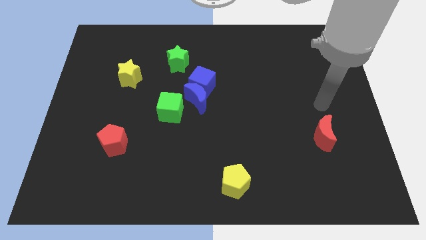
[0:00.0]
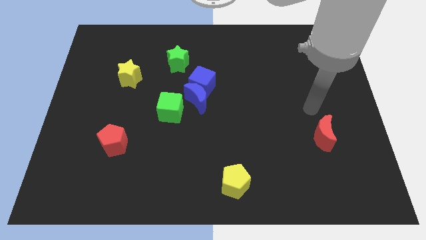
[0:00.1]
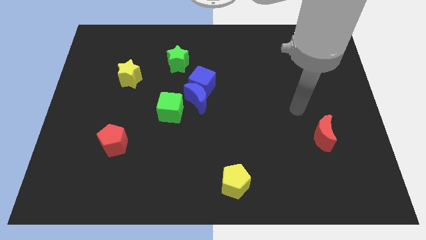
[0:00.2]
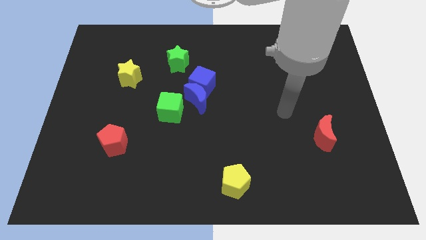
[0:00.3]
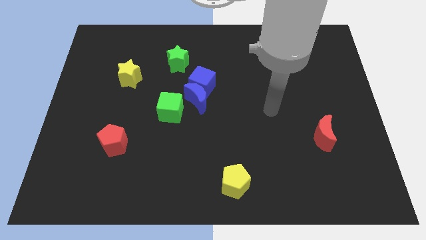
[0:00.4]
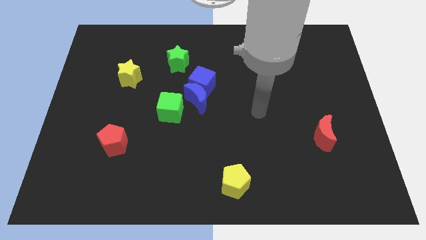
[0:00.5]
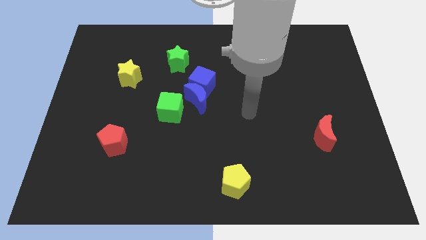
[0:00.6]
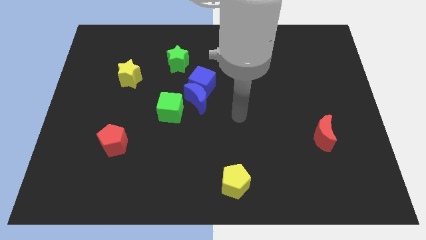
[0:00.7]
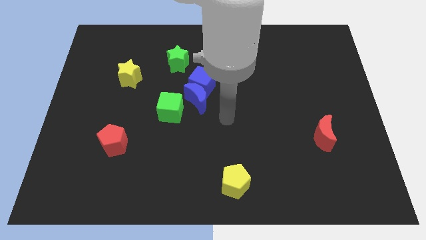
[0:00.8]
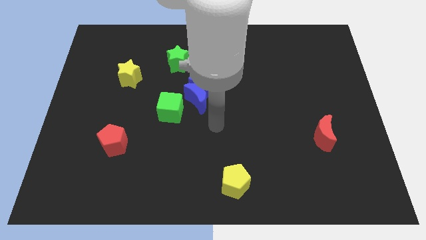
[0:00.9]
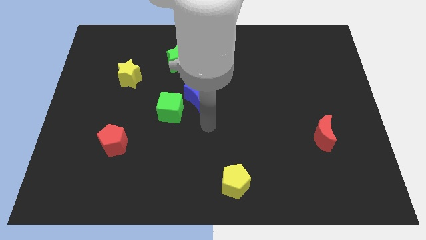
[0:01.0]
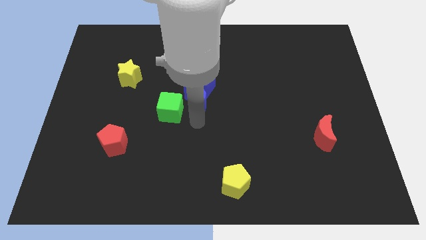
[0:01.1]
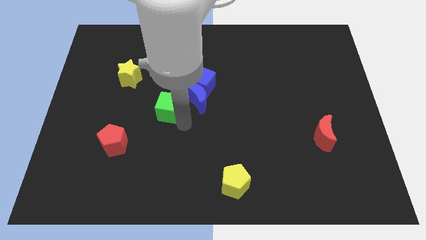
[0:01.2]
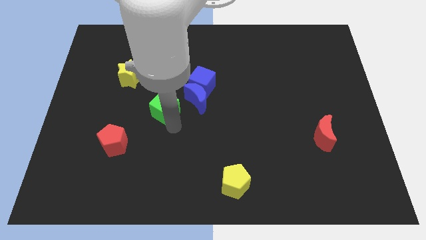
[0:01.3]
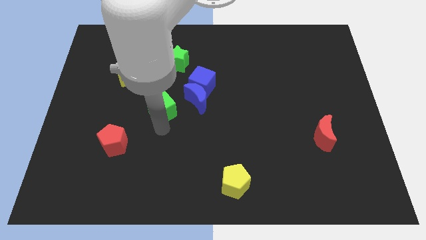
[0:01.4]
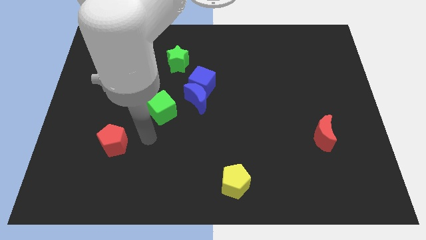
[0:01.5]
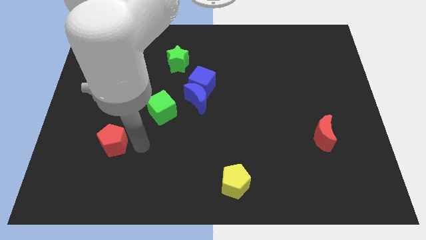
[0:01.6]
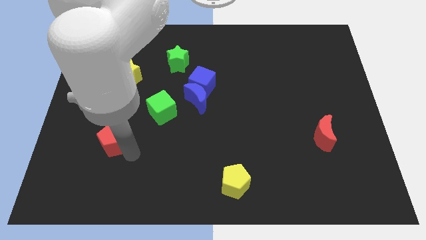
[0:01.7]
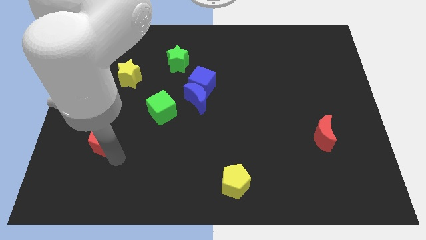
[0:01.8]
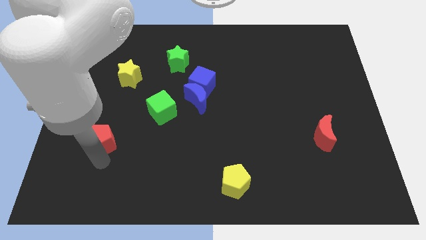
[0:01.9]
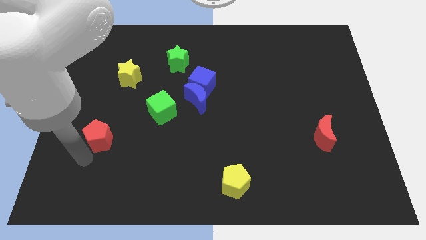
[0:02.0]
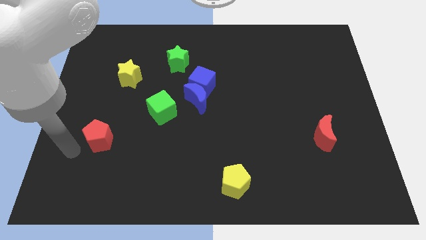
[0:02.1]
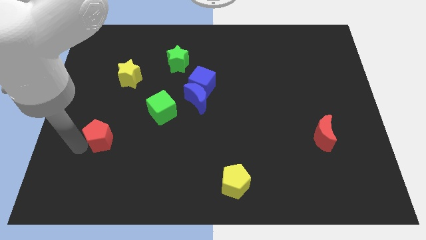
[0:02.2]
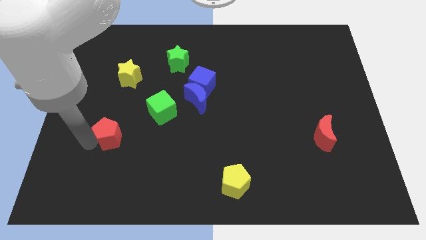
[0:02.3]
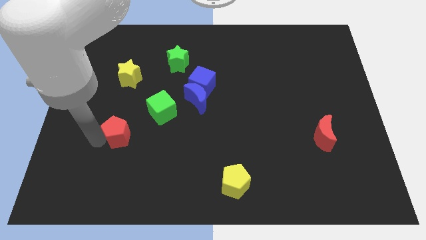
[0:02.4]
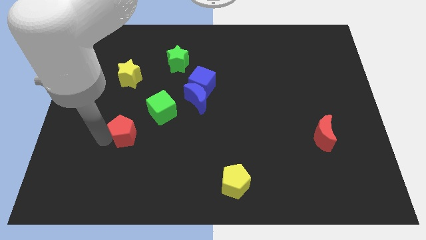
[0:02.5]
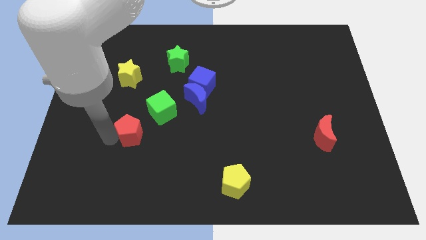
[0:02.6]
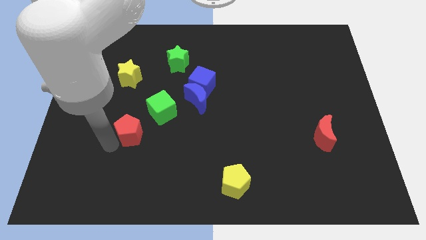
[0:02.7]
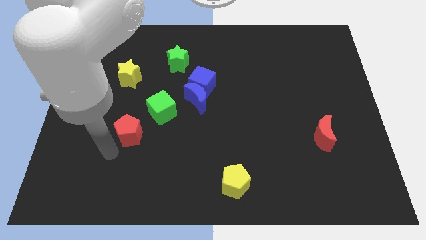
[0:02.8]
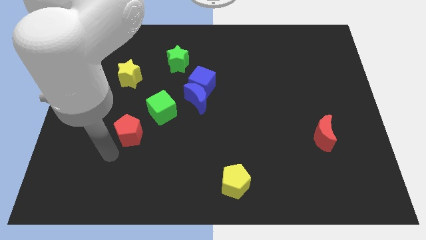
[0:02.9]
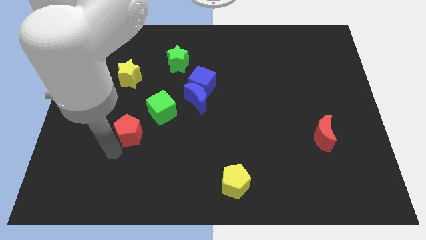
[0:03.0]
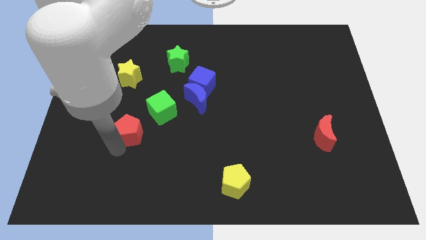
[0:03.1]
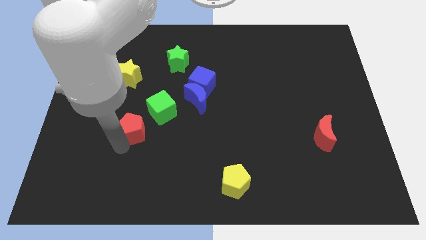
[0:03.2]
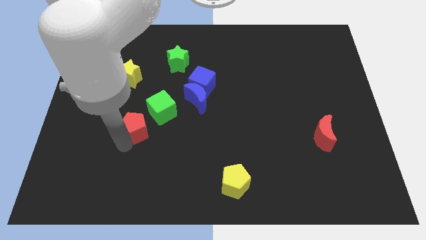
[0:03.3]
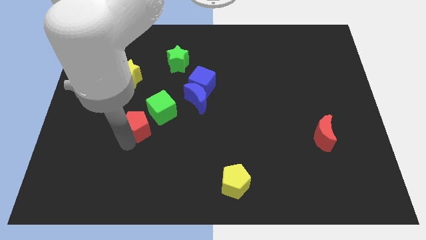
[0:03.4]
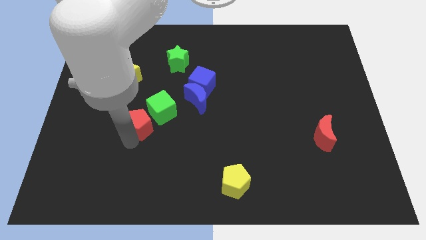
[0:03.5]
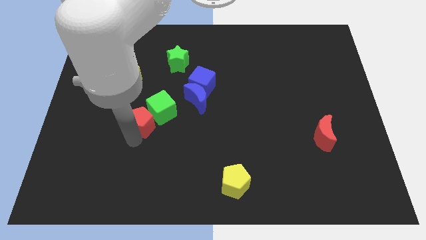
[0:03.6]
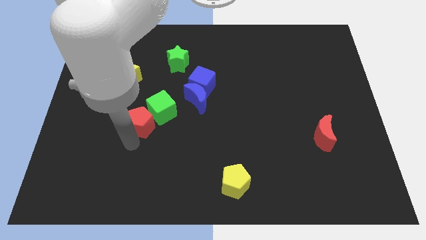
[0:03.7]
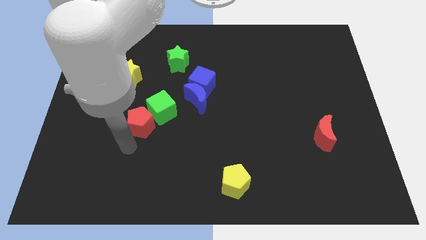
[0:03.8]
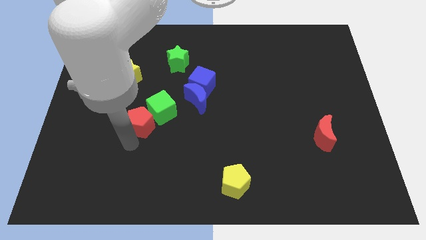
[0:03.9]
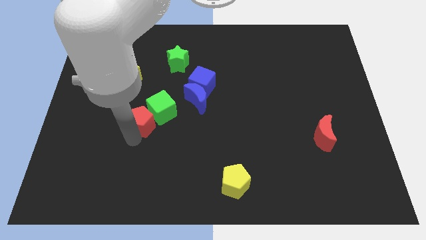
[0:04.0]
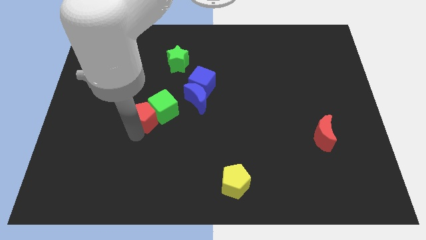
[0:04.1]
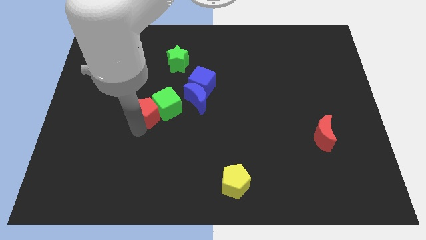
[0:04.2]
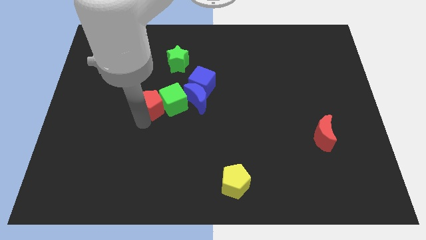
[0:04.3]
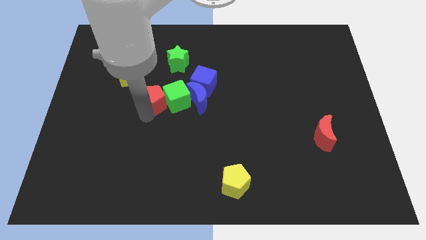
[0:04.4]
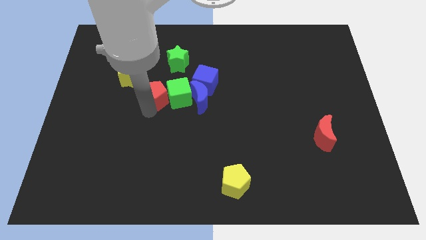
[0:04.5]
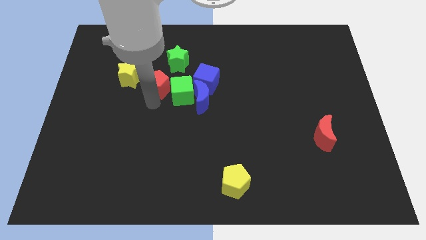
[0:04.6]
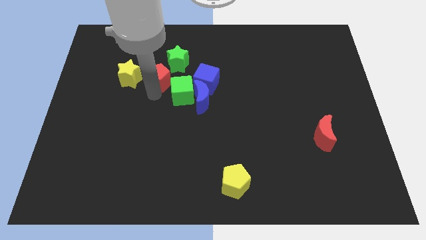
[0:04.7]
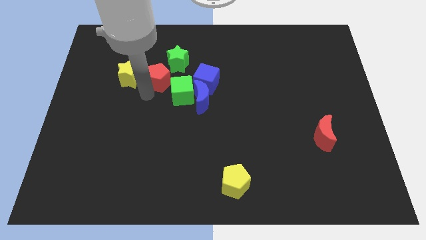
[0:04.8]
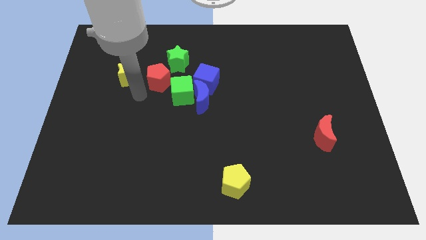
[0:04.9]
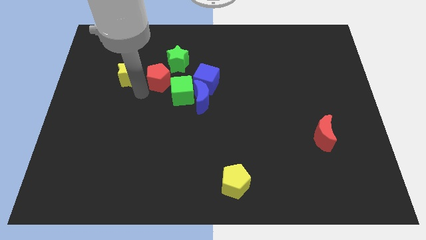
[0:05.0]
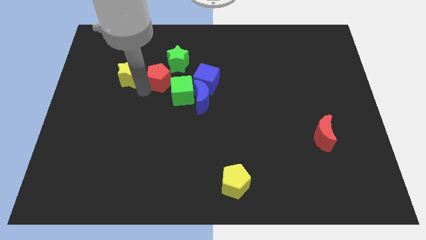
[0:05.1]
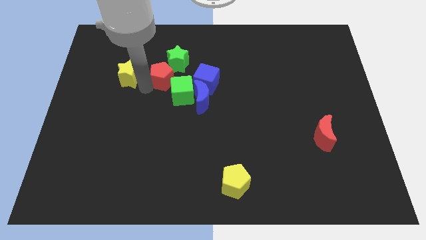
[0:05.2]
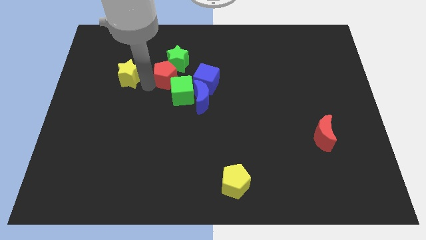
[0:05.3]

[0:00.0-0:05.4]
put the red pentagon above the green cube

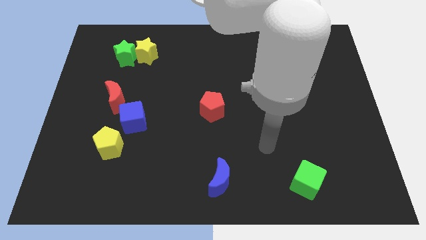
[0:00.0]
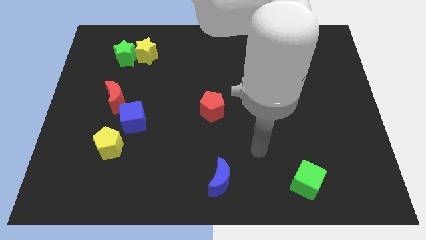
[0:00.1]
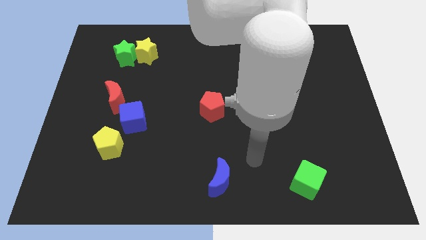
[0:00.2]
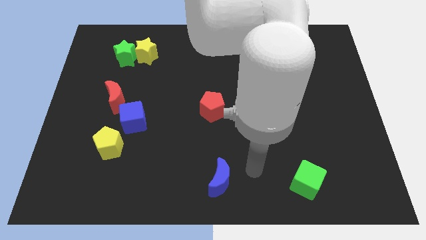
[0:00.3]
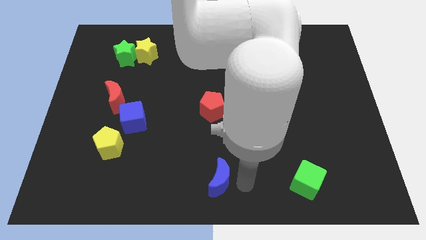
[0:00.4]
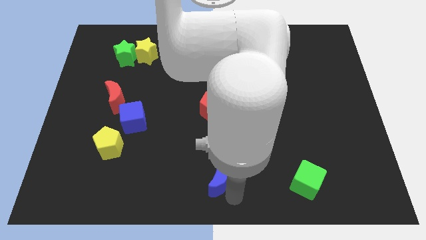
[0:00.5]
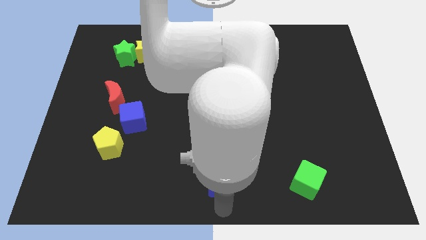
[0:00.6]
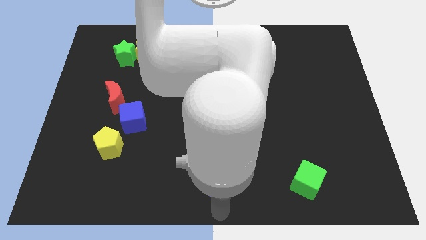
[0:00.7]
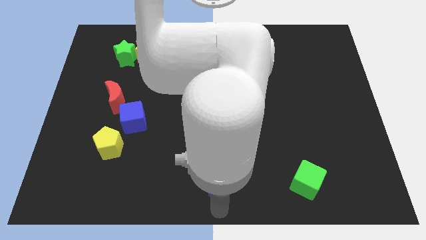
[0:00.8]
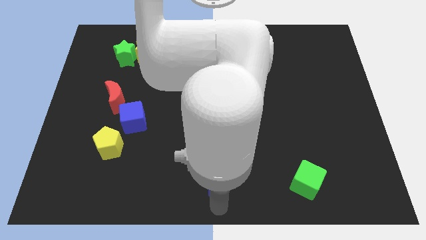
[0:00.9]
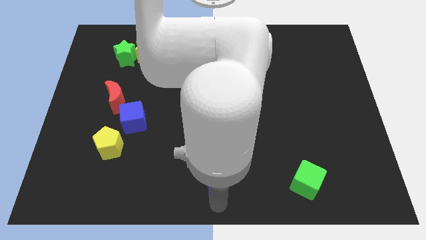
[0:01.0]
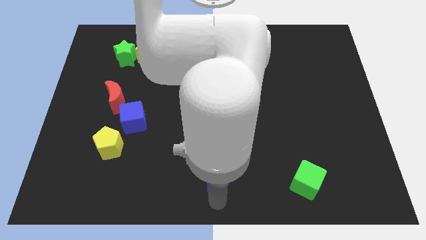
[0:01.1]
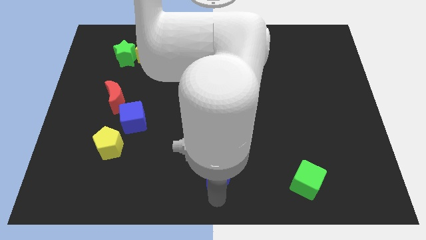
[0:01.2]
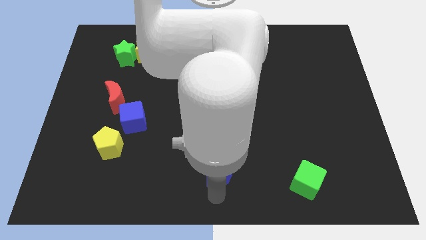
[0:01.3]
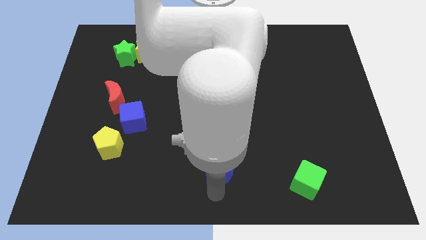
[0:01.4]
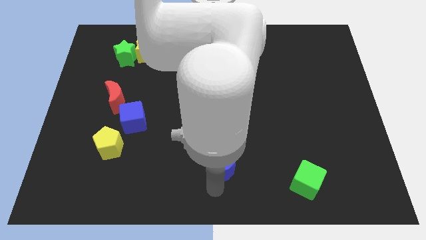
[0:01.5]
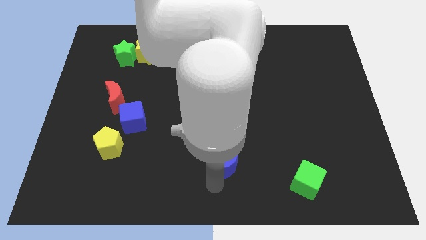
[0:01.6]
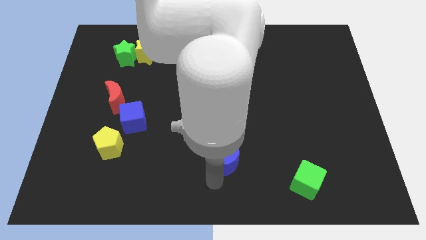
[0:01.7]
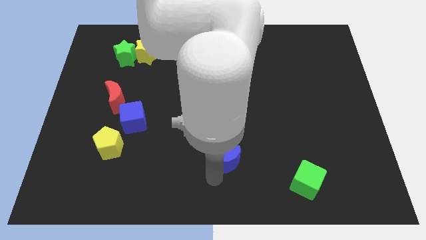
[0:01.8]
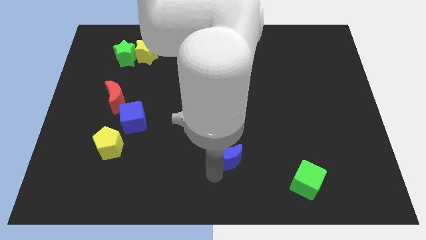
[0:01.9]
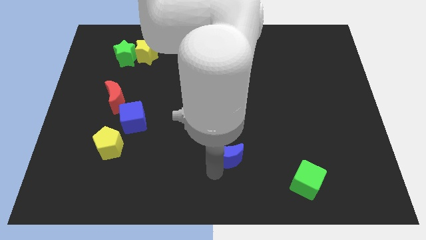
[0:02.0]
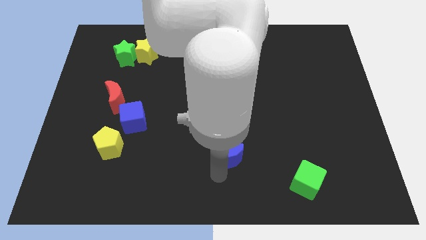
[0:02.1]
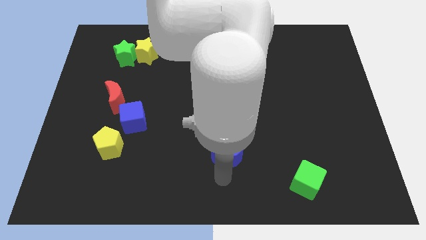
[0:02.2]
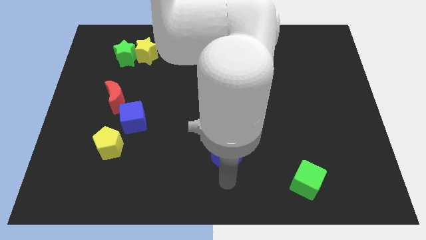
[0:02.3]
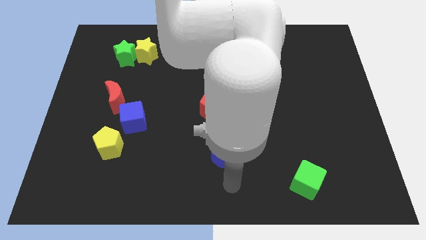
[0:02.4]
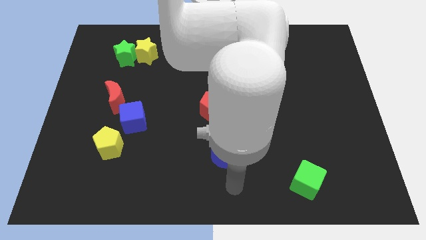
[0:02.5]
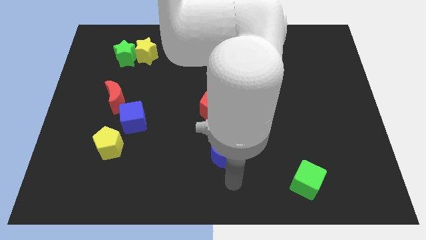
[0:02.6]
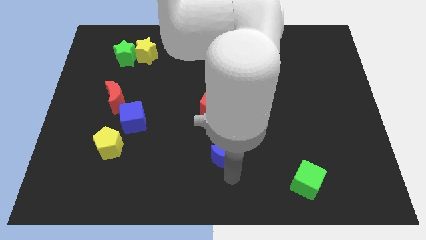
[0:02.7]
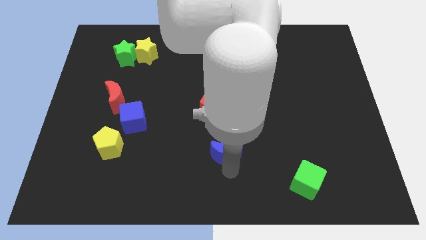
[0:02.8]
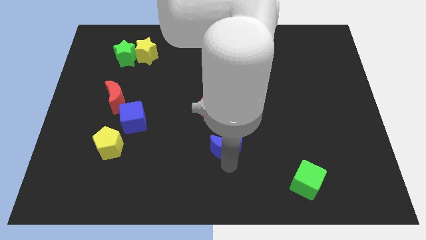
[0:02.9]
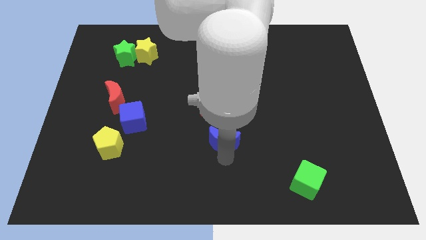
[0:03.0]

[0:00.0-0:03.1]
put the blue moon to the bottom right of the red pentagon
